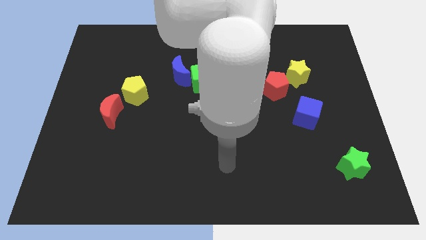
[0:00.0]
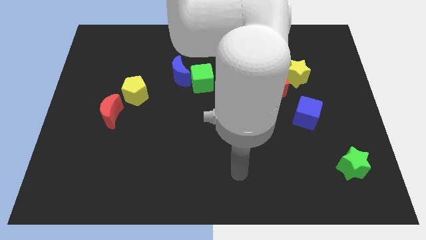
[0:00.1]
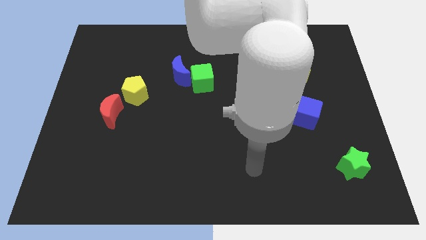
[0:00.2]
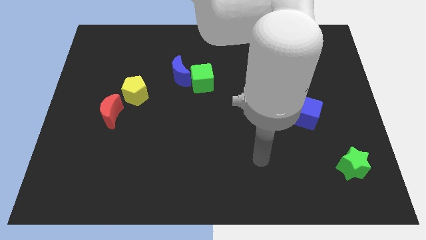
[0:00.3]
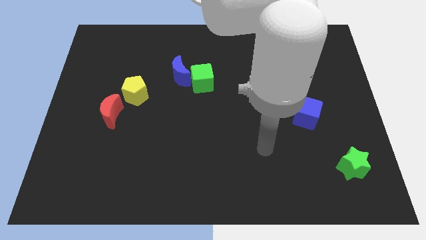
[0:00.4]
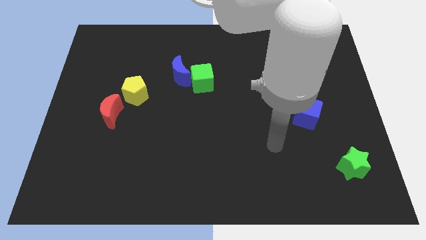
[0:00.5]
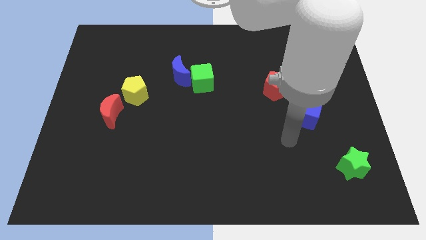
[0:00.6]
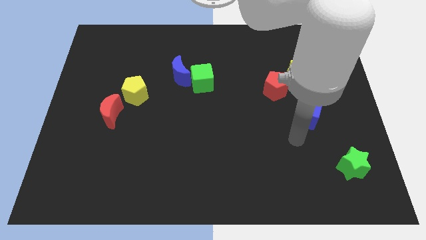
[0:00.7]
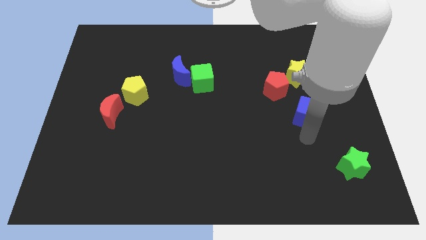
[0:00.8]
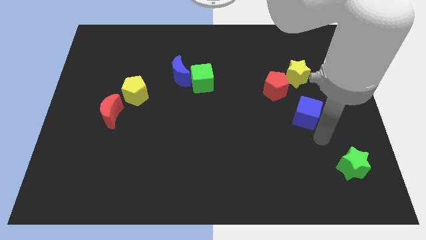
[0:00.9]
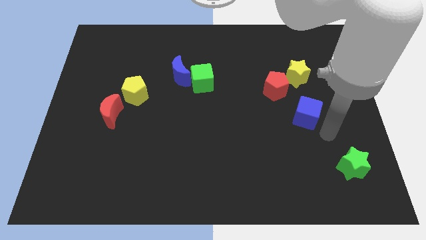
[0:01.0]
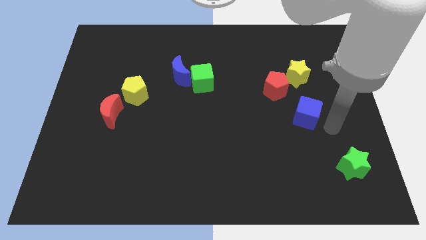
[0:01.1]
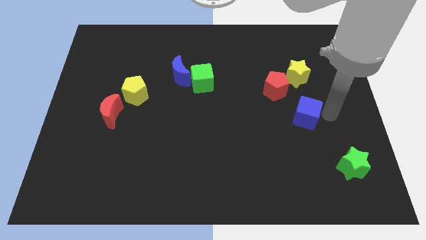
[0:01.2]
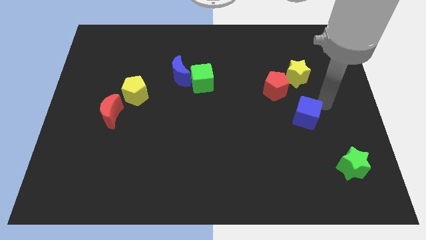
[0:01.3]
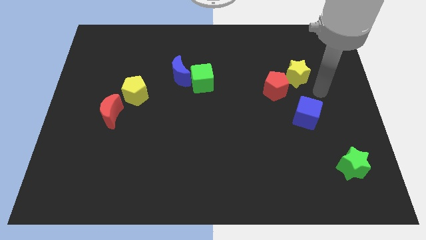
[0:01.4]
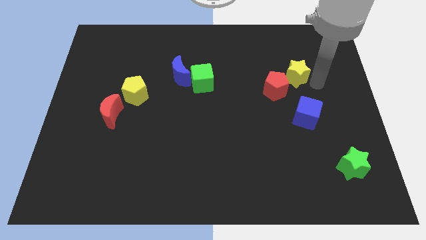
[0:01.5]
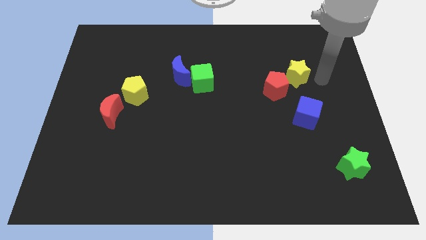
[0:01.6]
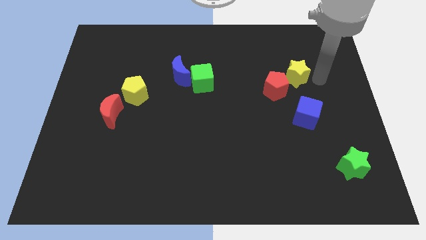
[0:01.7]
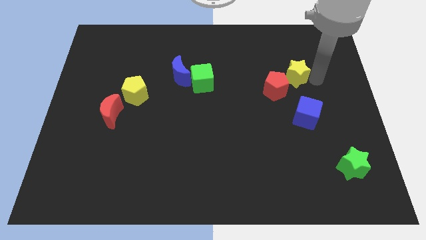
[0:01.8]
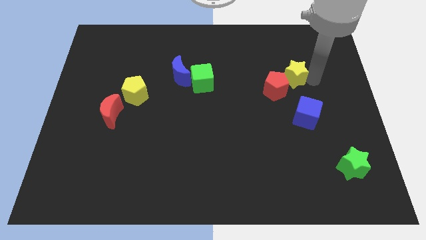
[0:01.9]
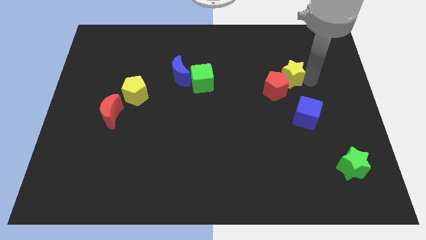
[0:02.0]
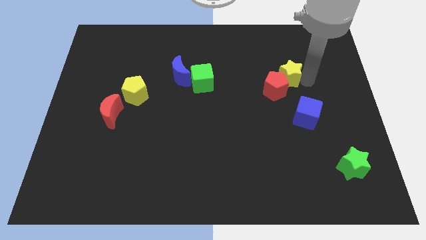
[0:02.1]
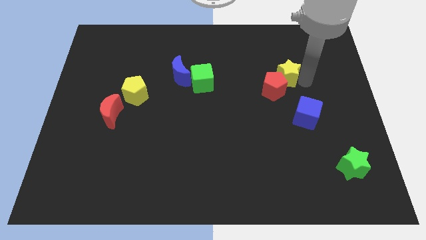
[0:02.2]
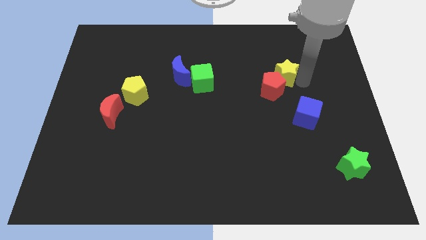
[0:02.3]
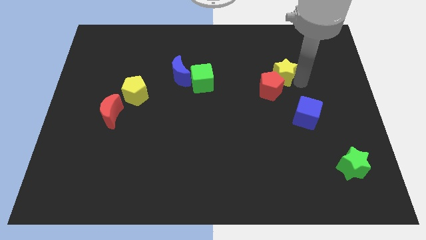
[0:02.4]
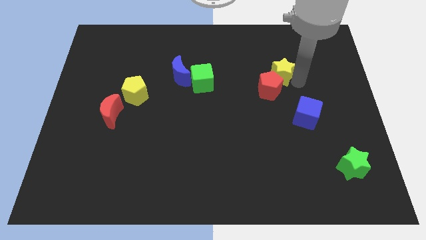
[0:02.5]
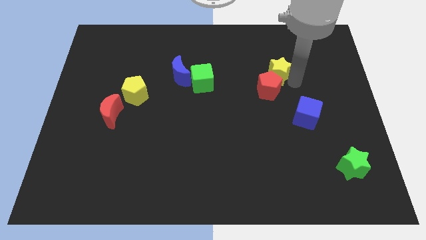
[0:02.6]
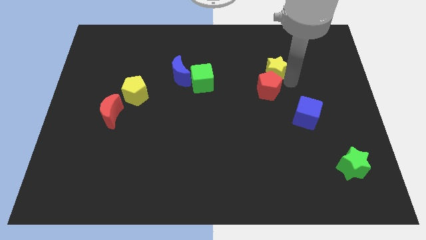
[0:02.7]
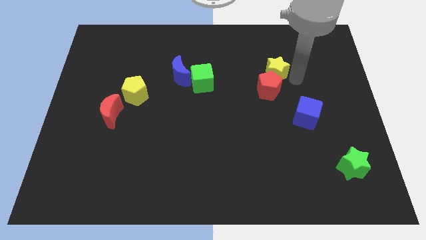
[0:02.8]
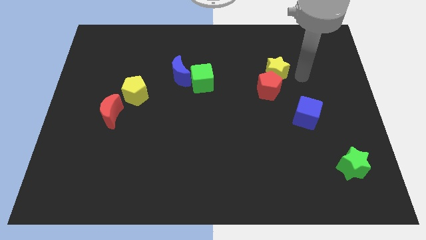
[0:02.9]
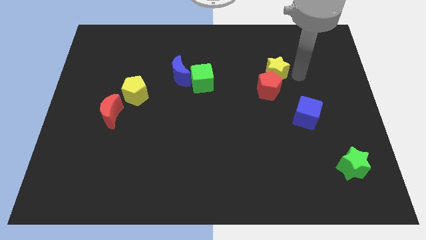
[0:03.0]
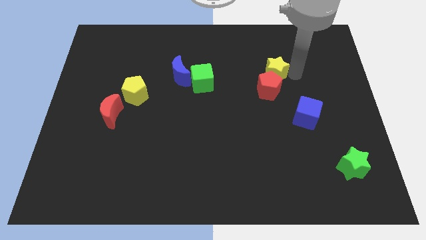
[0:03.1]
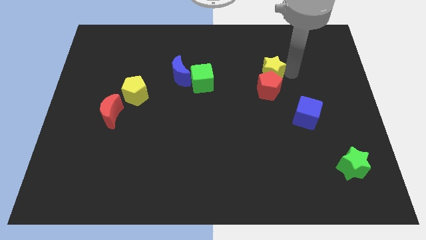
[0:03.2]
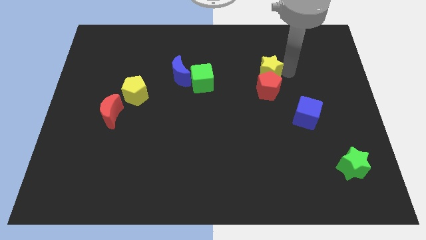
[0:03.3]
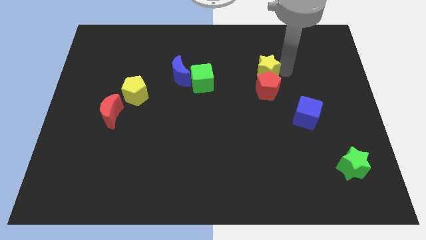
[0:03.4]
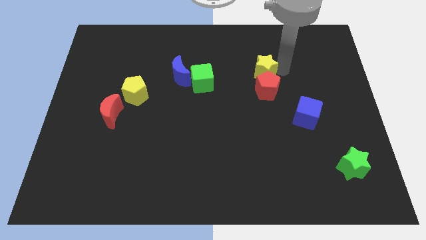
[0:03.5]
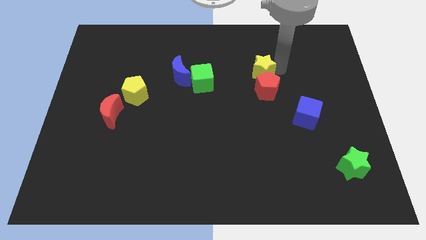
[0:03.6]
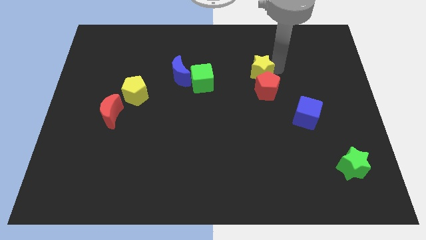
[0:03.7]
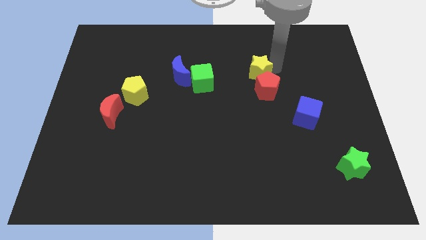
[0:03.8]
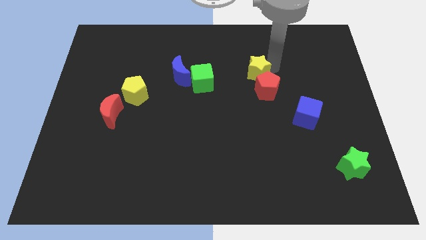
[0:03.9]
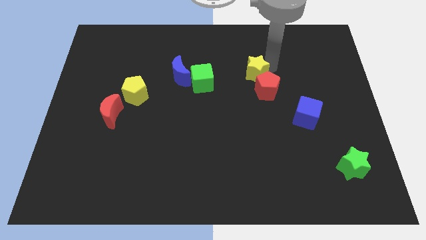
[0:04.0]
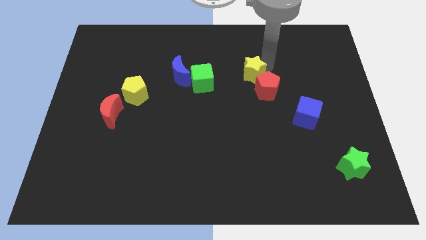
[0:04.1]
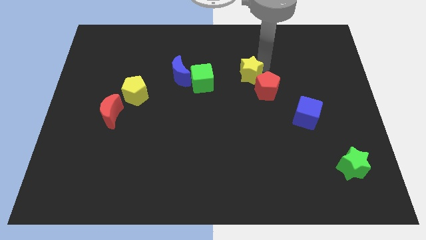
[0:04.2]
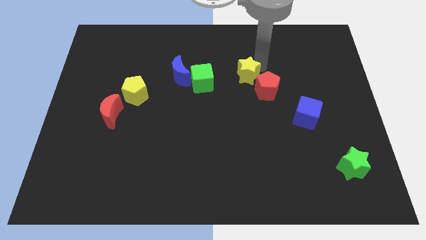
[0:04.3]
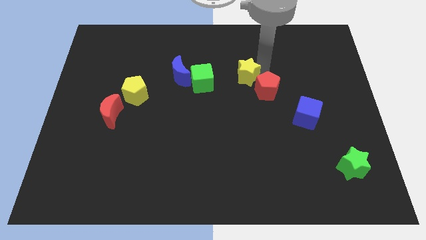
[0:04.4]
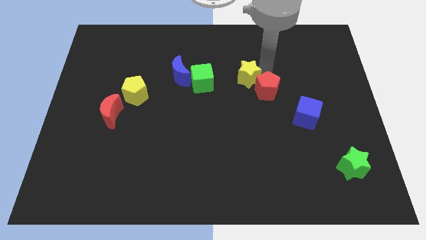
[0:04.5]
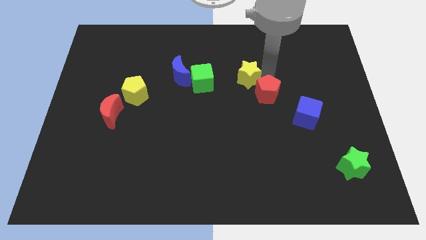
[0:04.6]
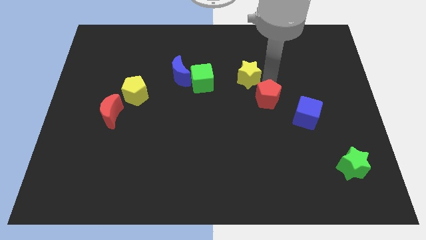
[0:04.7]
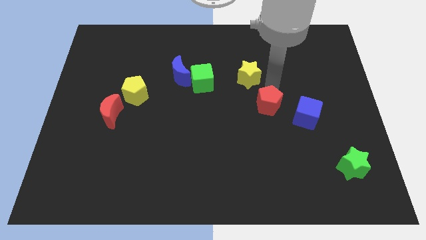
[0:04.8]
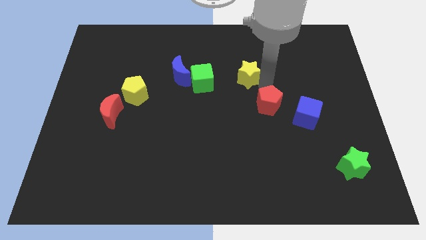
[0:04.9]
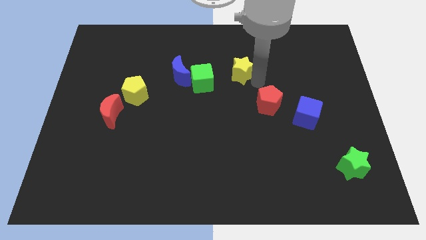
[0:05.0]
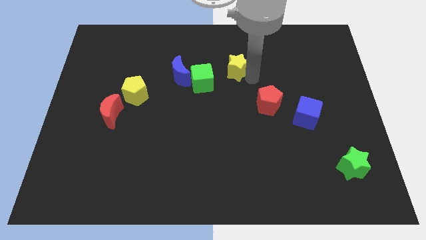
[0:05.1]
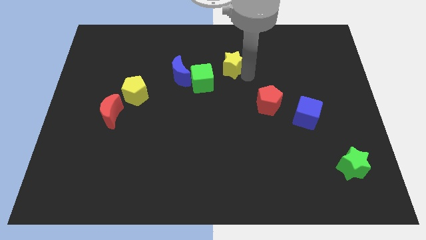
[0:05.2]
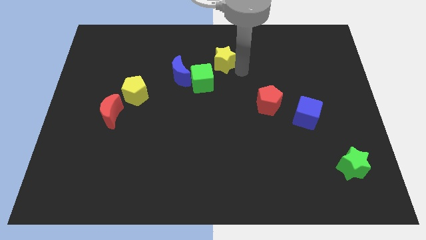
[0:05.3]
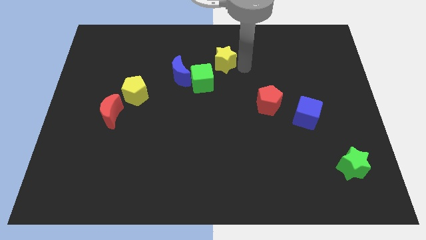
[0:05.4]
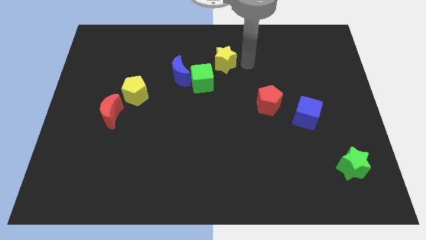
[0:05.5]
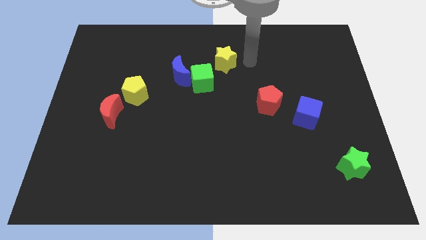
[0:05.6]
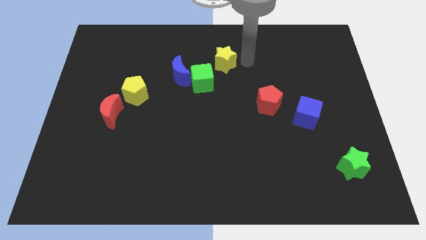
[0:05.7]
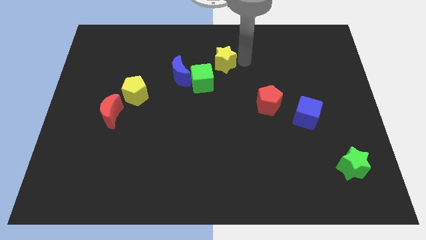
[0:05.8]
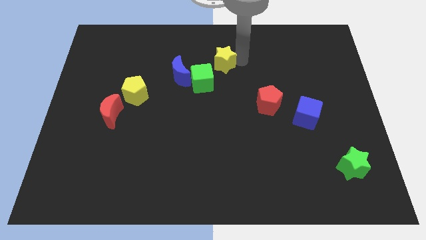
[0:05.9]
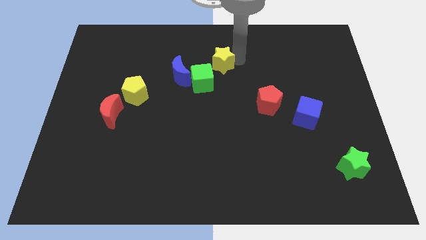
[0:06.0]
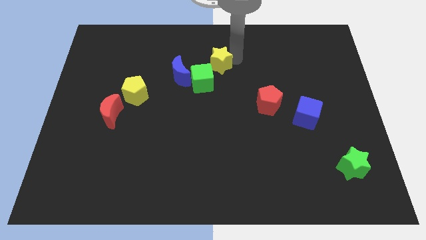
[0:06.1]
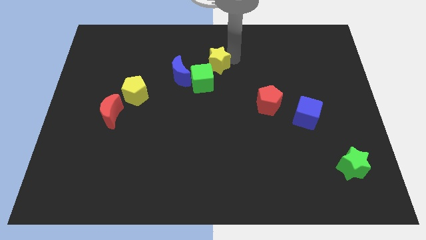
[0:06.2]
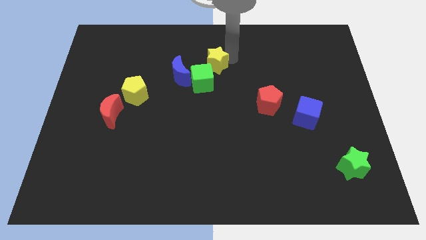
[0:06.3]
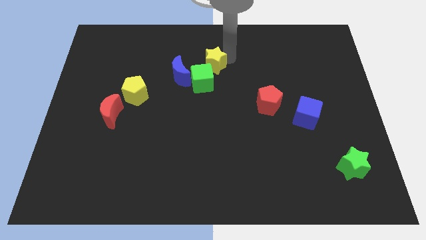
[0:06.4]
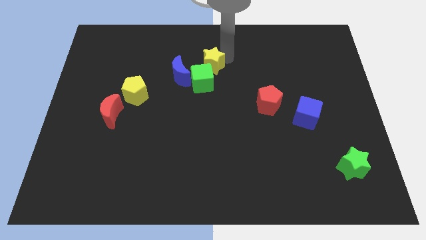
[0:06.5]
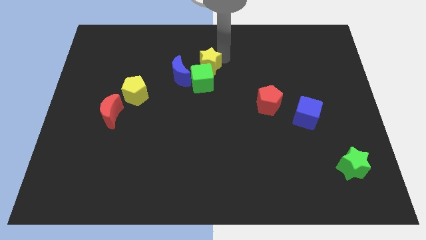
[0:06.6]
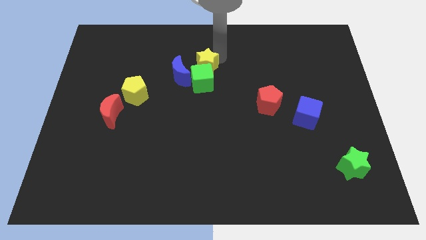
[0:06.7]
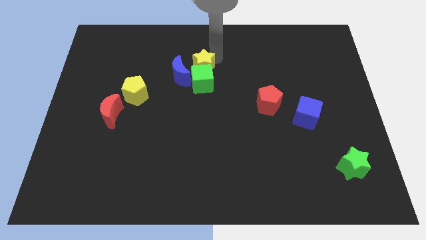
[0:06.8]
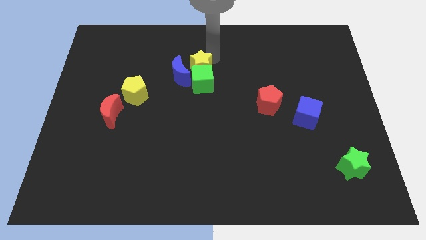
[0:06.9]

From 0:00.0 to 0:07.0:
put the yellow star next to the blue moon

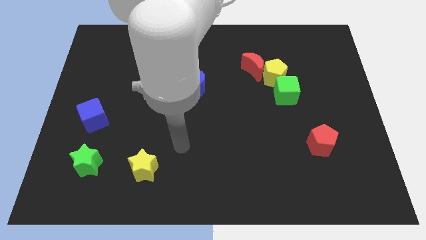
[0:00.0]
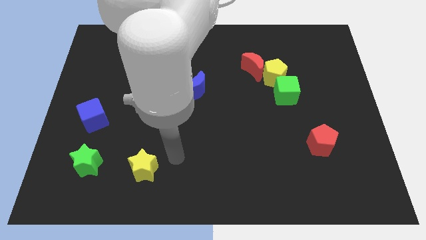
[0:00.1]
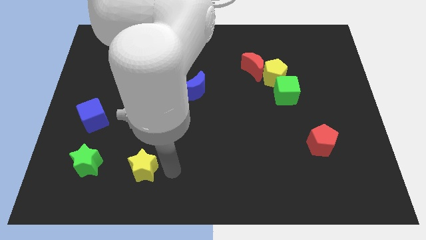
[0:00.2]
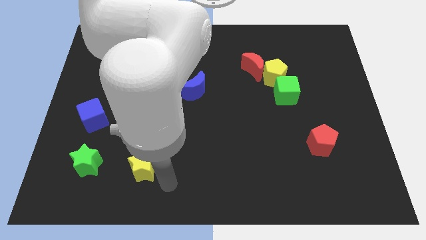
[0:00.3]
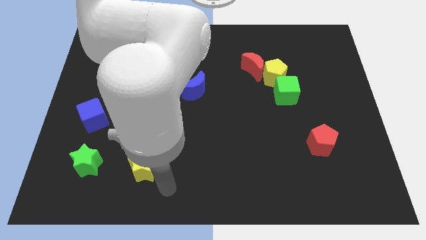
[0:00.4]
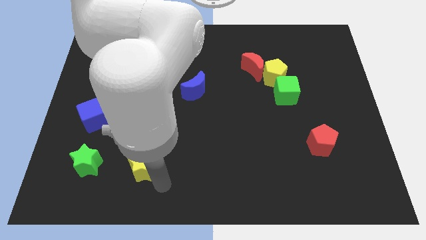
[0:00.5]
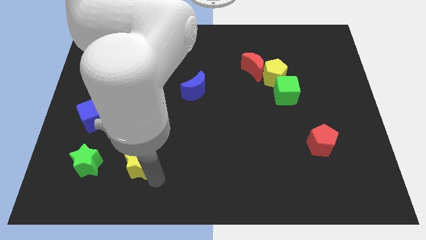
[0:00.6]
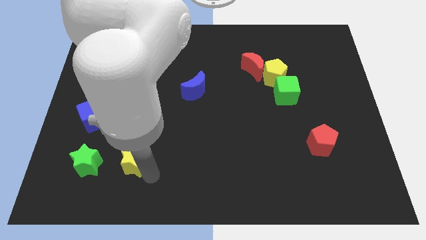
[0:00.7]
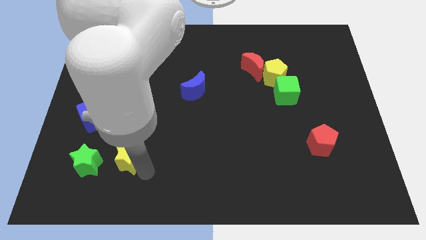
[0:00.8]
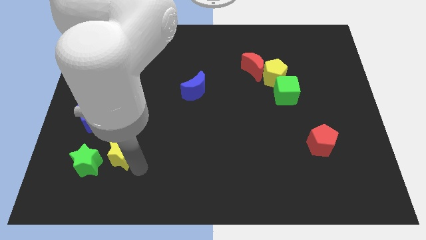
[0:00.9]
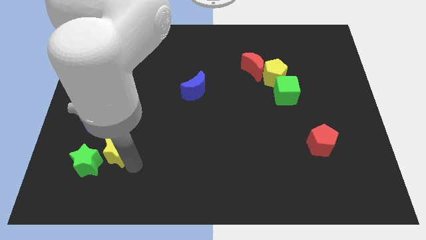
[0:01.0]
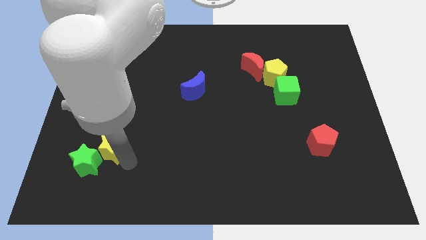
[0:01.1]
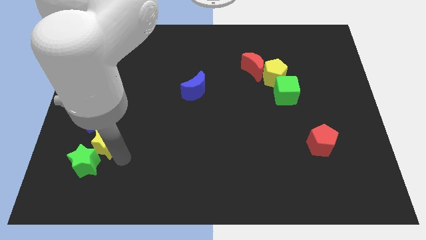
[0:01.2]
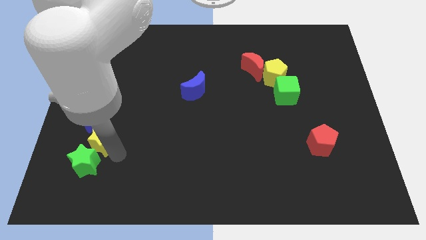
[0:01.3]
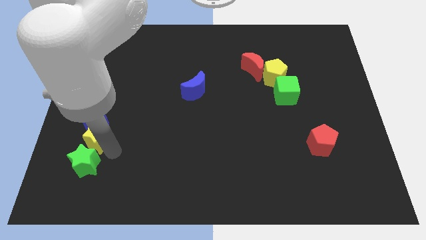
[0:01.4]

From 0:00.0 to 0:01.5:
put the yellow star towards the blue cube
